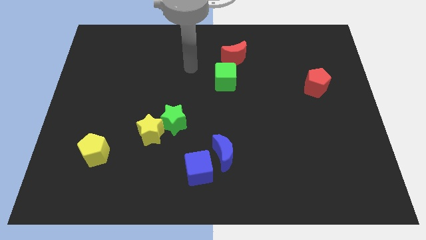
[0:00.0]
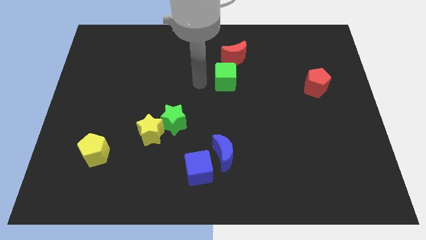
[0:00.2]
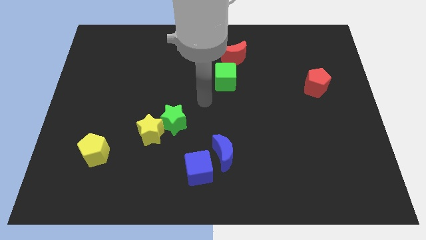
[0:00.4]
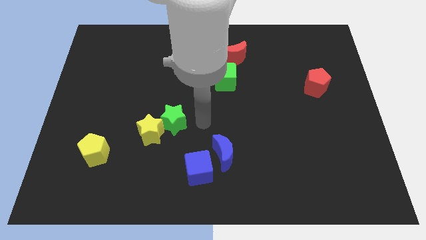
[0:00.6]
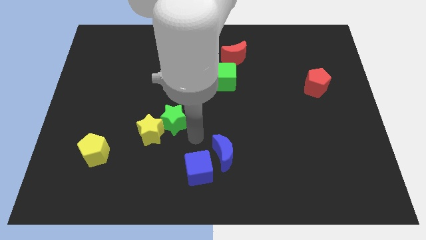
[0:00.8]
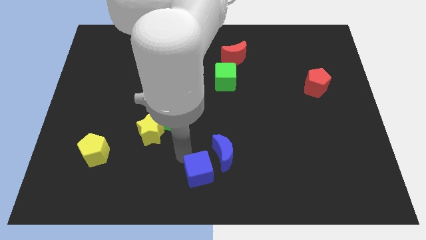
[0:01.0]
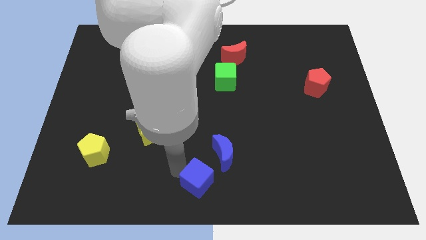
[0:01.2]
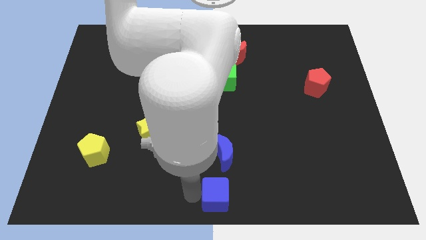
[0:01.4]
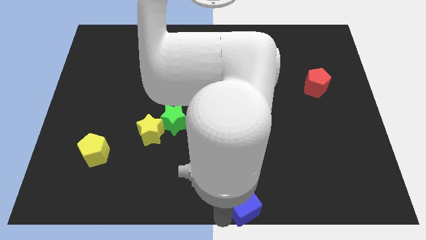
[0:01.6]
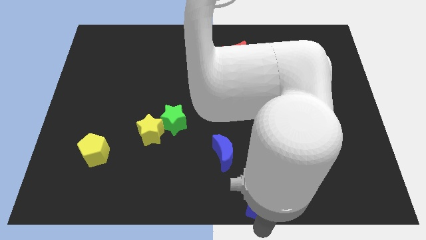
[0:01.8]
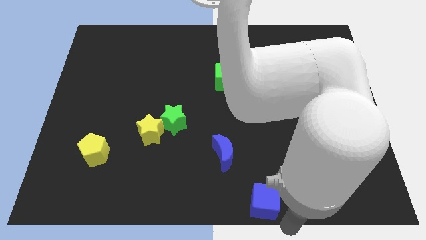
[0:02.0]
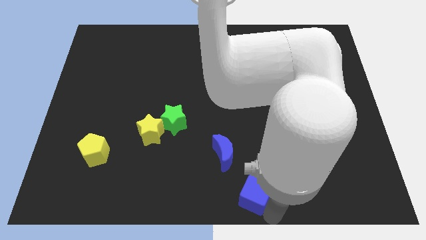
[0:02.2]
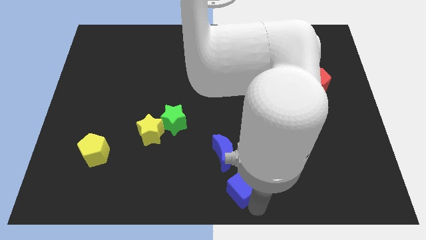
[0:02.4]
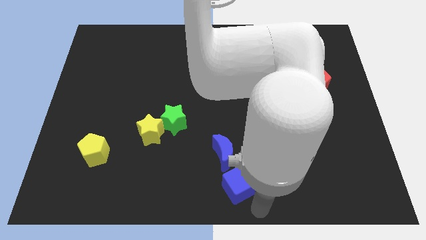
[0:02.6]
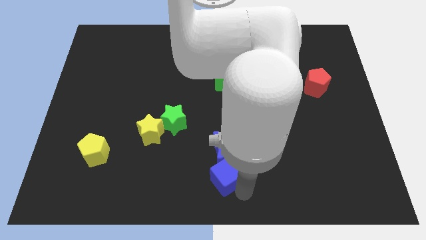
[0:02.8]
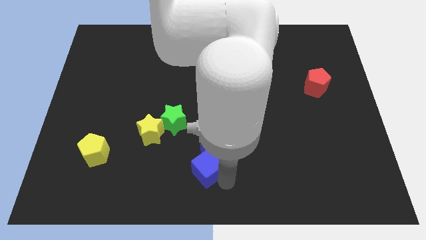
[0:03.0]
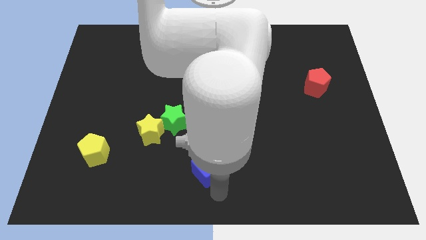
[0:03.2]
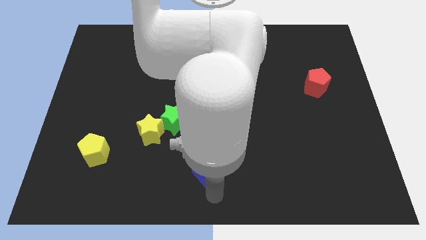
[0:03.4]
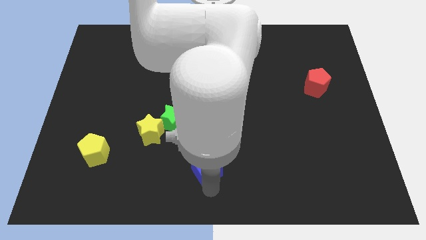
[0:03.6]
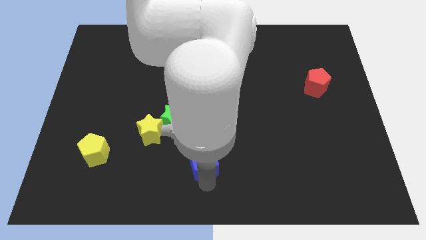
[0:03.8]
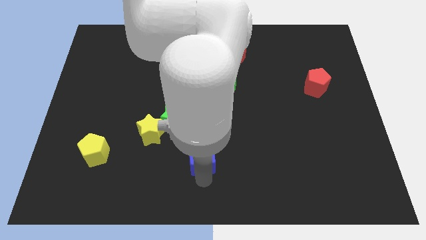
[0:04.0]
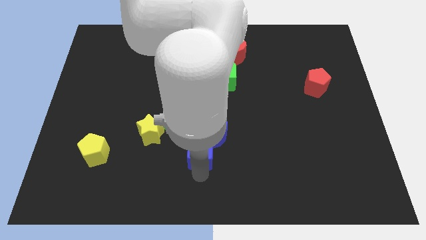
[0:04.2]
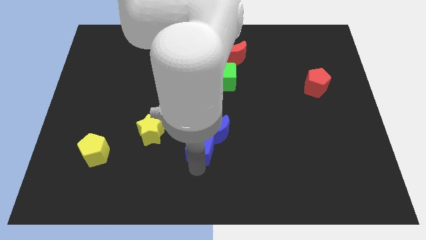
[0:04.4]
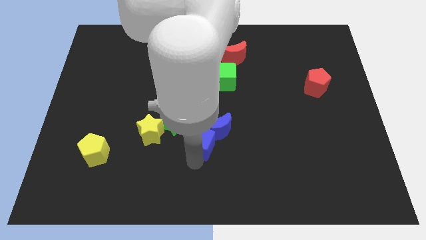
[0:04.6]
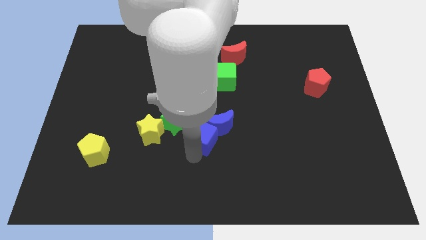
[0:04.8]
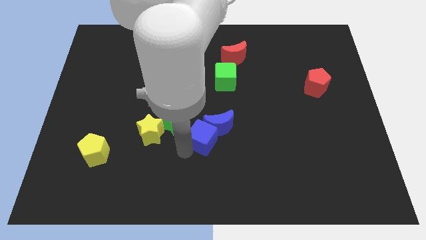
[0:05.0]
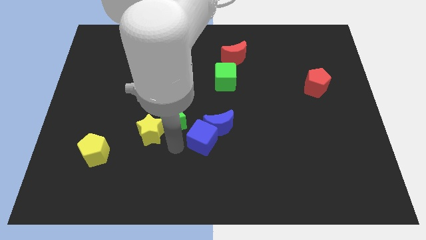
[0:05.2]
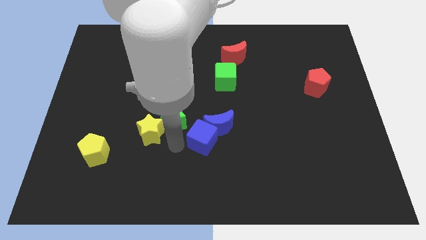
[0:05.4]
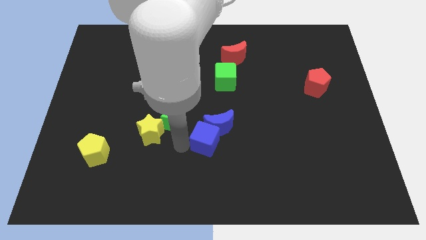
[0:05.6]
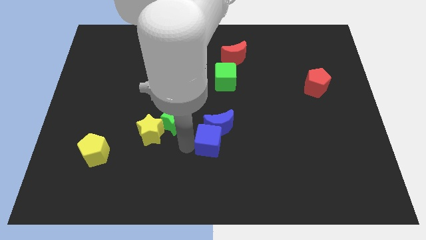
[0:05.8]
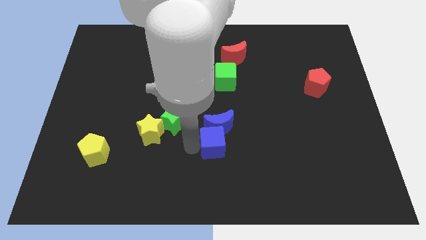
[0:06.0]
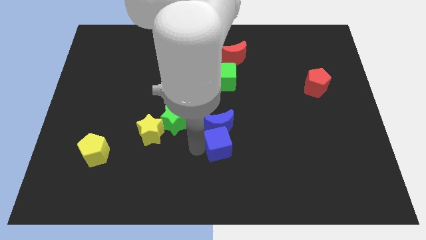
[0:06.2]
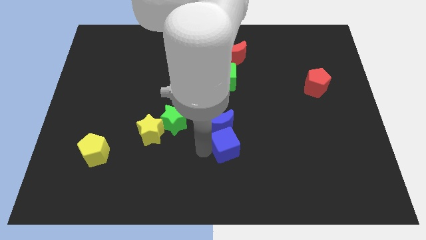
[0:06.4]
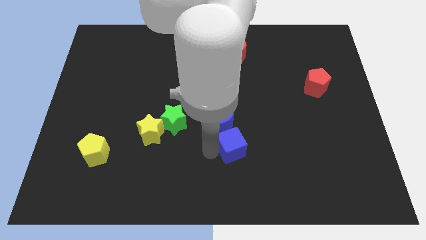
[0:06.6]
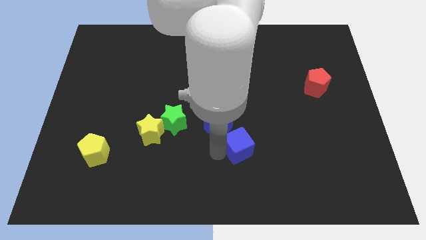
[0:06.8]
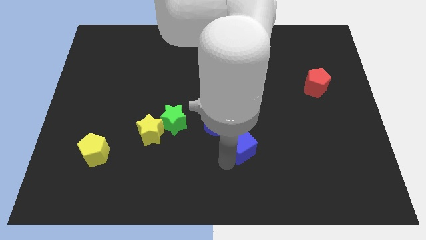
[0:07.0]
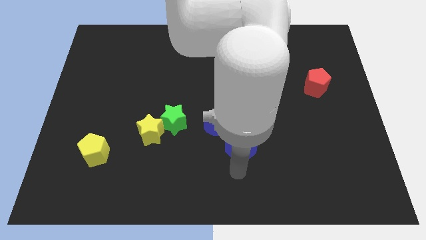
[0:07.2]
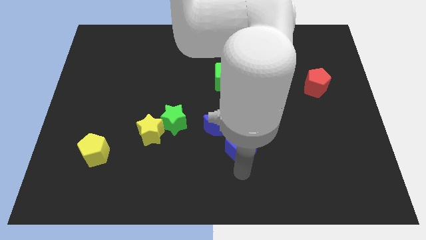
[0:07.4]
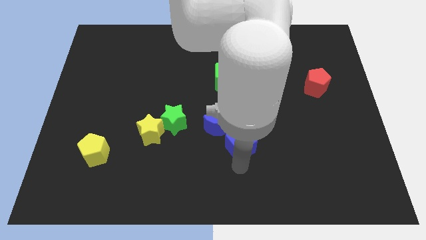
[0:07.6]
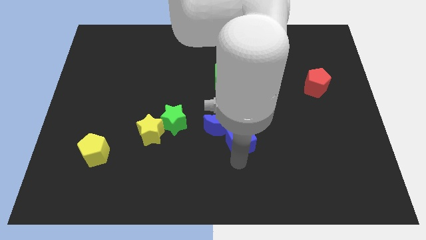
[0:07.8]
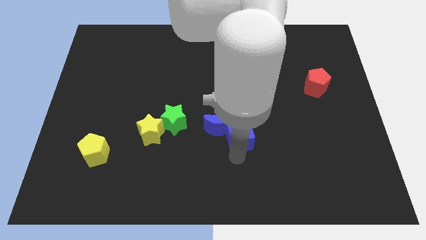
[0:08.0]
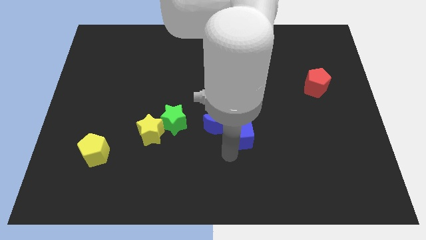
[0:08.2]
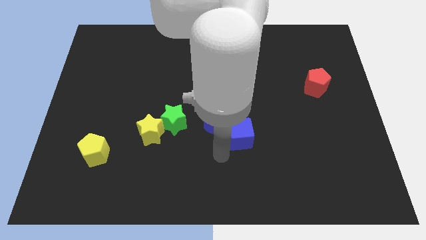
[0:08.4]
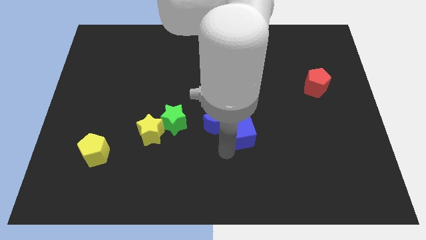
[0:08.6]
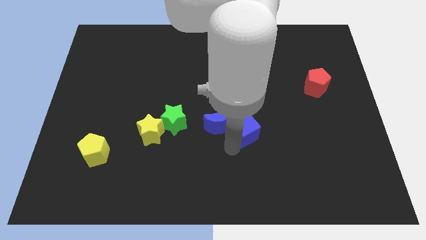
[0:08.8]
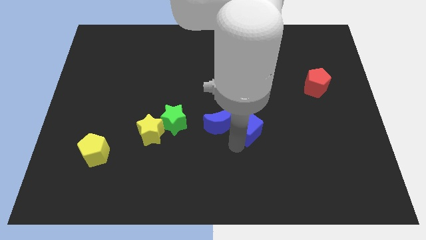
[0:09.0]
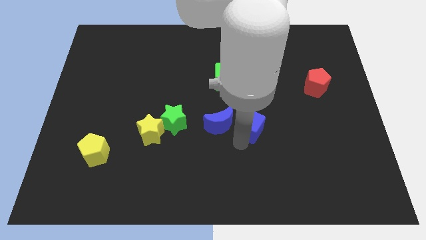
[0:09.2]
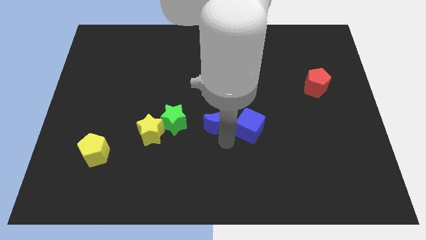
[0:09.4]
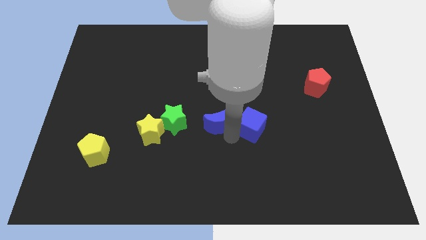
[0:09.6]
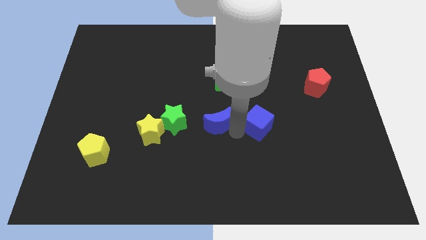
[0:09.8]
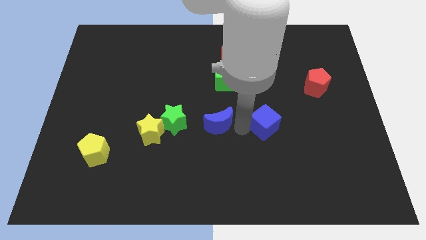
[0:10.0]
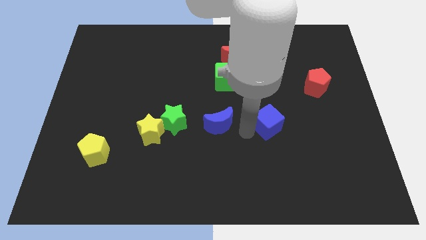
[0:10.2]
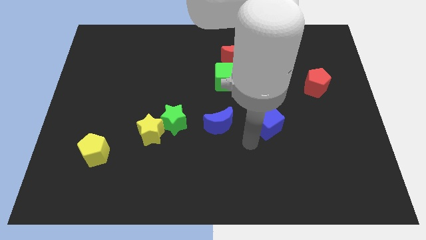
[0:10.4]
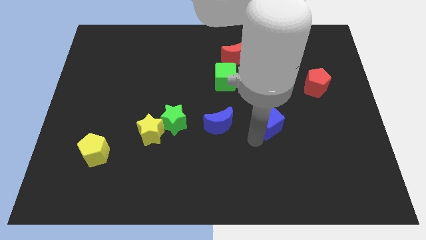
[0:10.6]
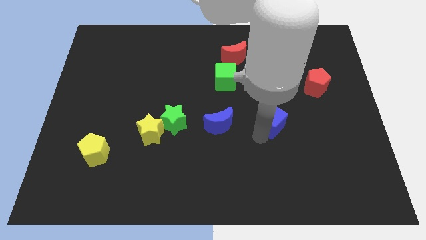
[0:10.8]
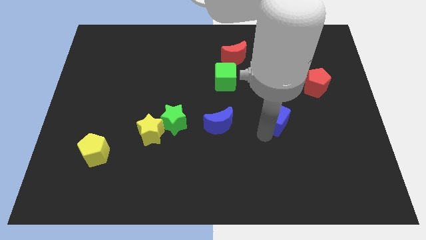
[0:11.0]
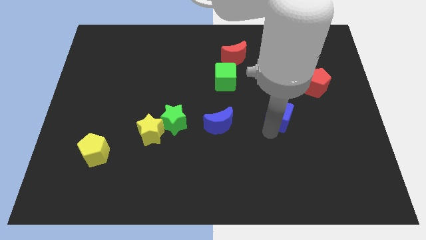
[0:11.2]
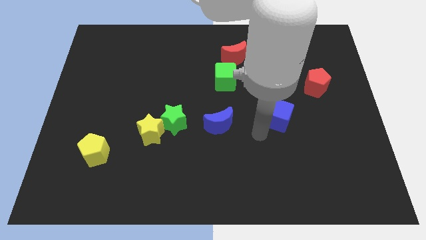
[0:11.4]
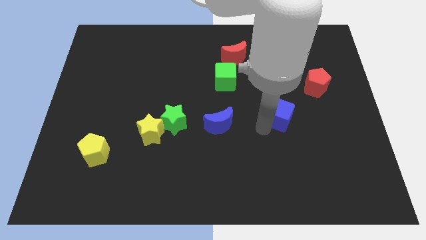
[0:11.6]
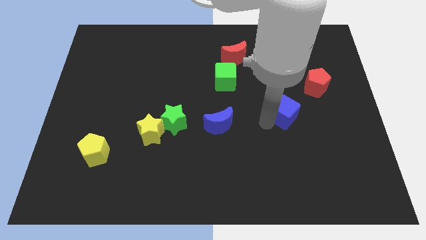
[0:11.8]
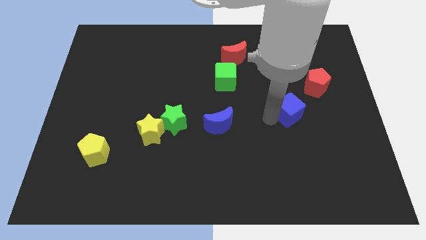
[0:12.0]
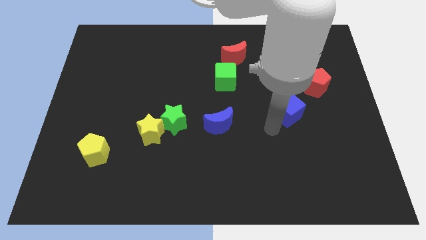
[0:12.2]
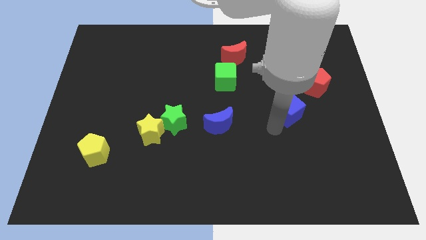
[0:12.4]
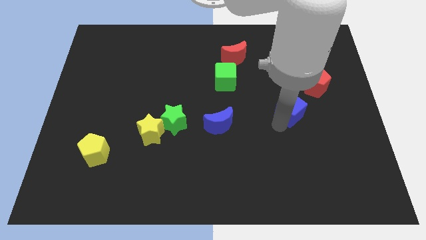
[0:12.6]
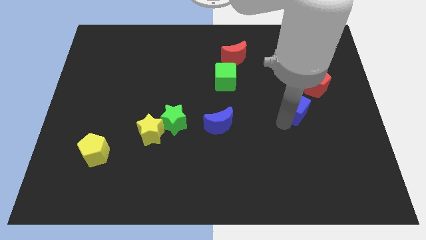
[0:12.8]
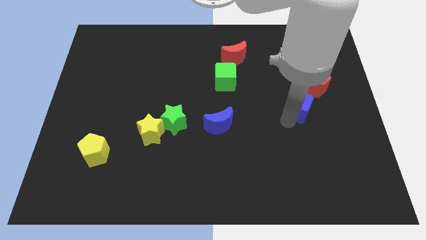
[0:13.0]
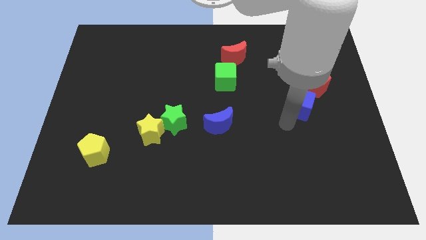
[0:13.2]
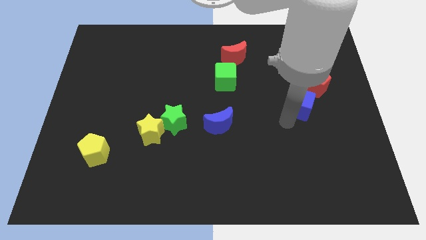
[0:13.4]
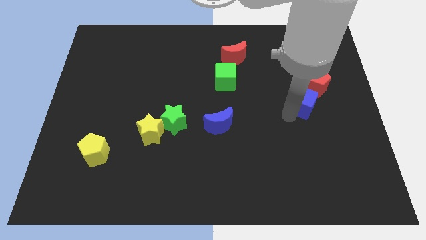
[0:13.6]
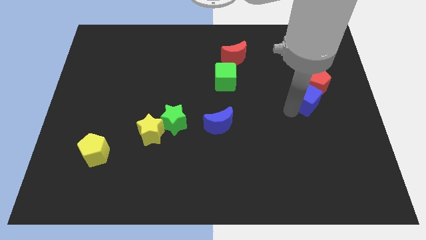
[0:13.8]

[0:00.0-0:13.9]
slide the blue cube next to the red pentagon
